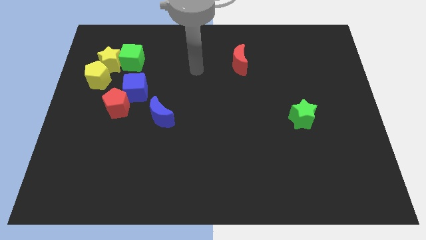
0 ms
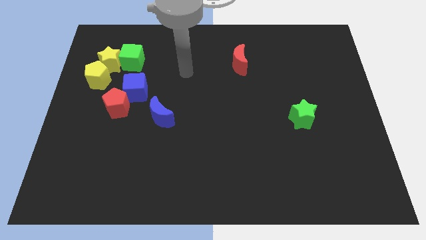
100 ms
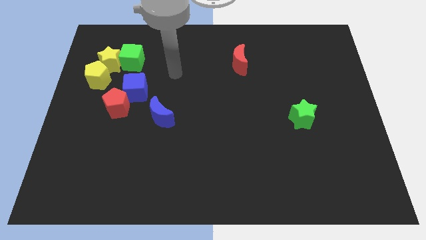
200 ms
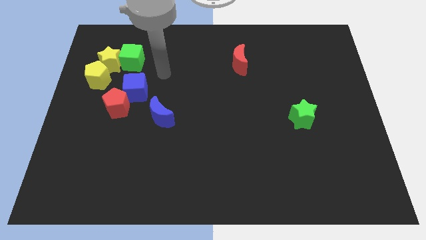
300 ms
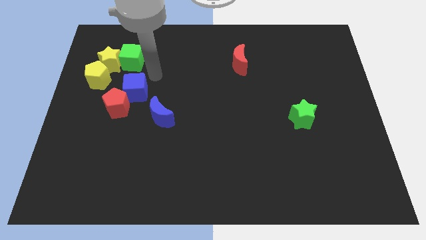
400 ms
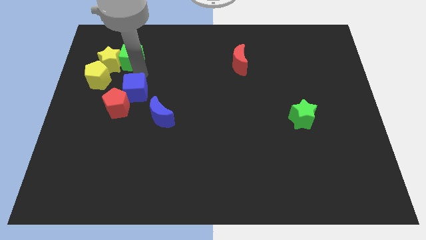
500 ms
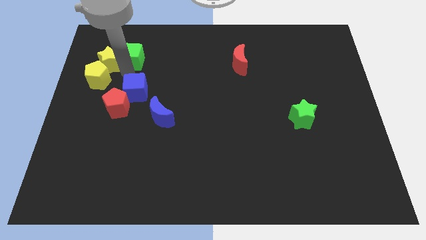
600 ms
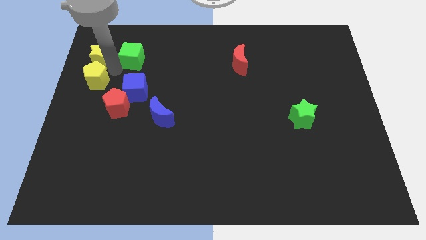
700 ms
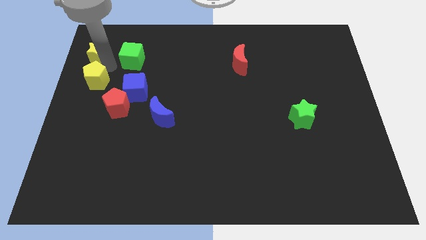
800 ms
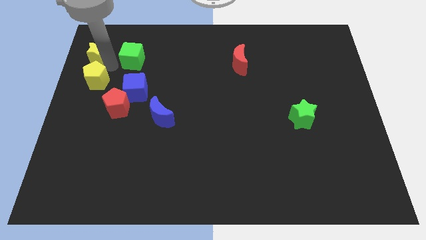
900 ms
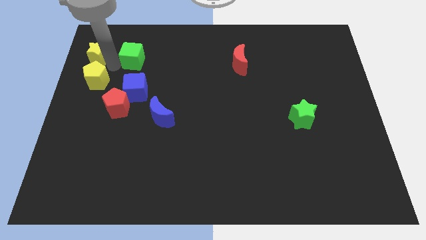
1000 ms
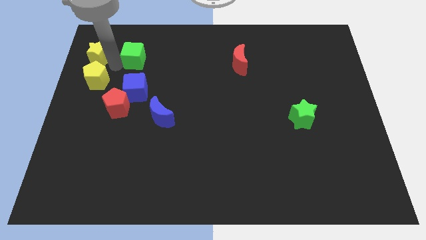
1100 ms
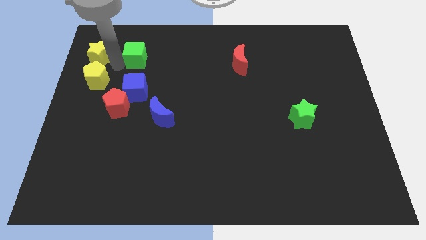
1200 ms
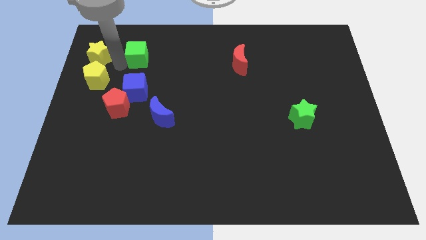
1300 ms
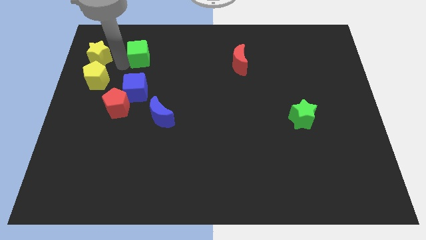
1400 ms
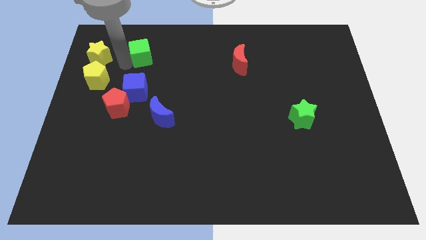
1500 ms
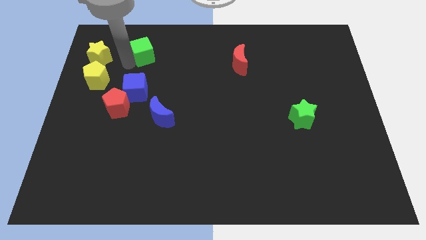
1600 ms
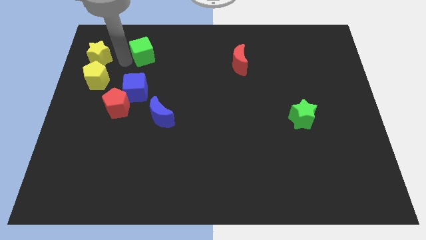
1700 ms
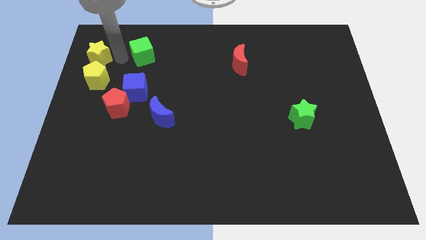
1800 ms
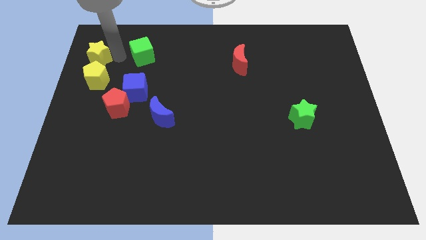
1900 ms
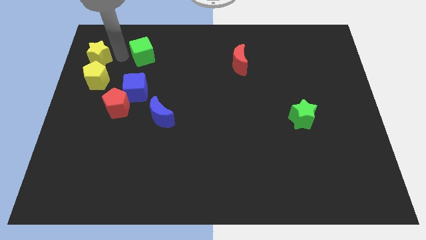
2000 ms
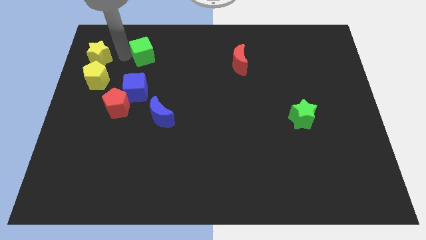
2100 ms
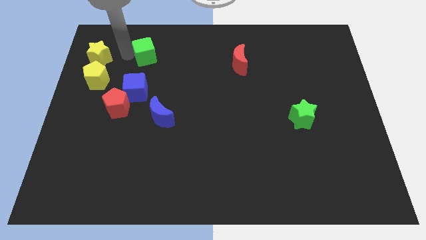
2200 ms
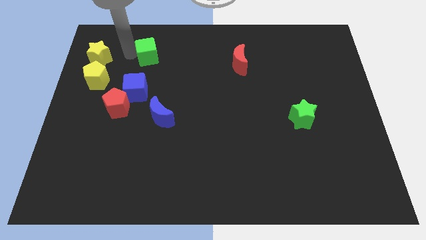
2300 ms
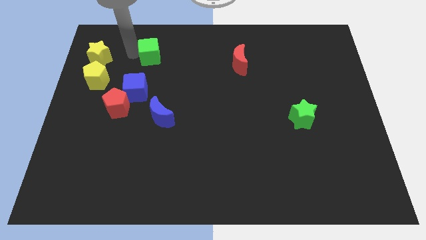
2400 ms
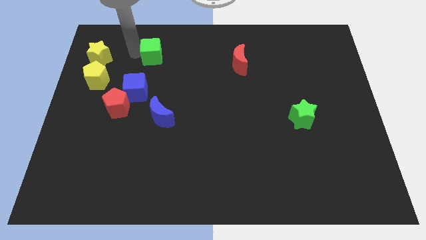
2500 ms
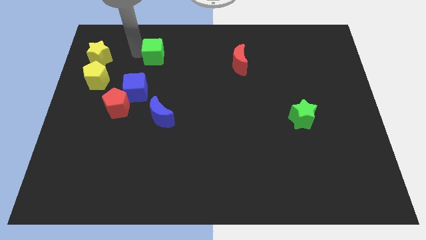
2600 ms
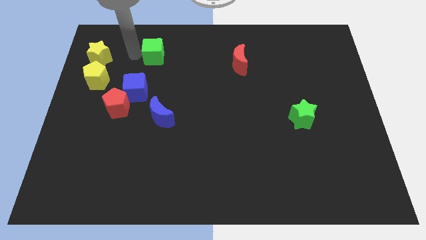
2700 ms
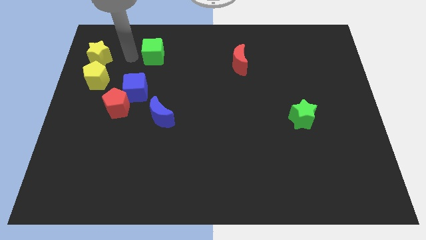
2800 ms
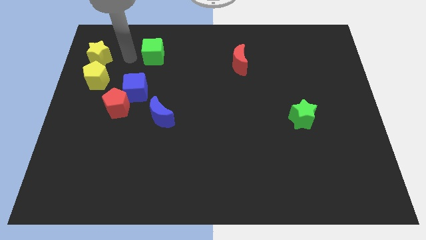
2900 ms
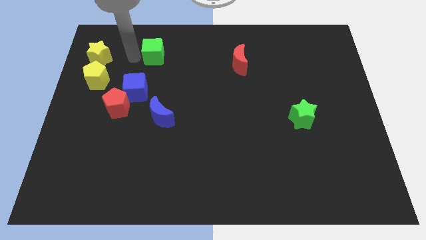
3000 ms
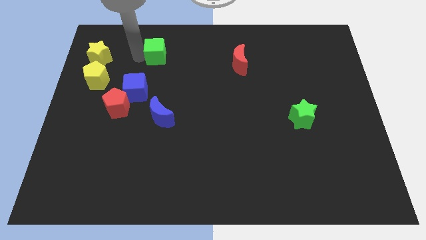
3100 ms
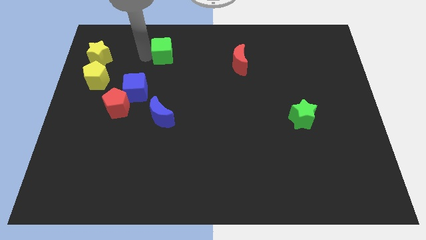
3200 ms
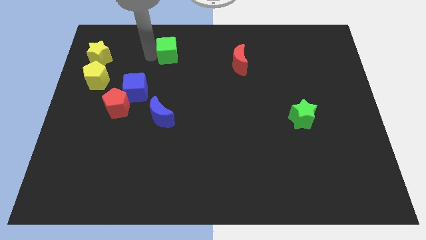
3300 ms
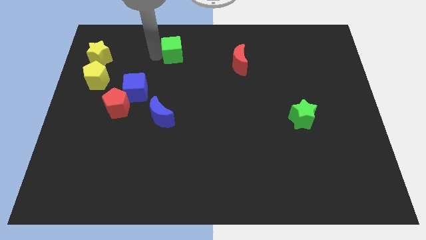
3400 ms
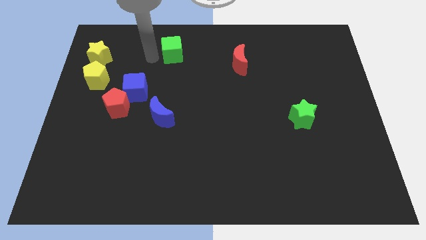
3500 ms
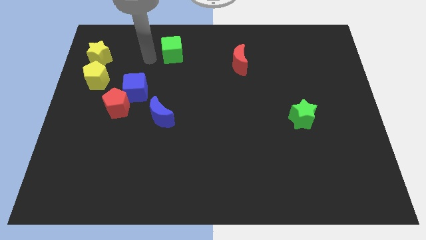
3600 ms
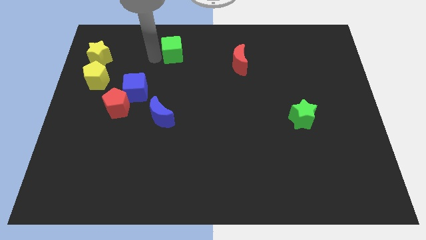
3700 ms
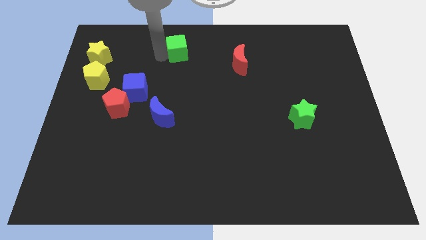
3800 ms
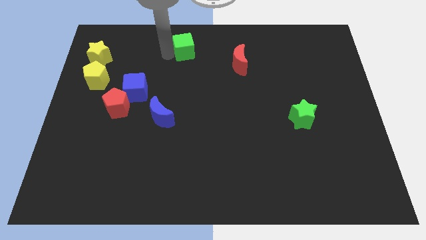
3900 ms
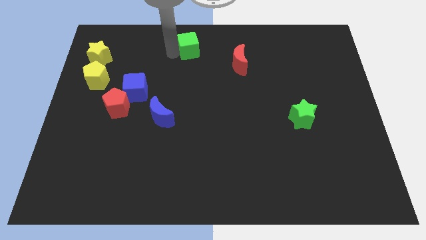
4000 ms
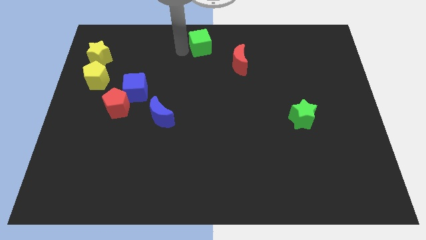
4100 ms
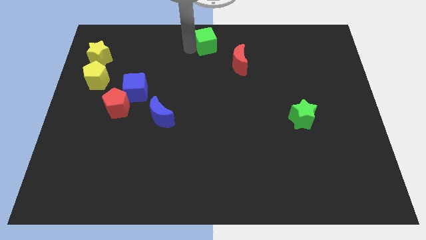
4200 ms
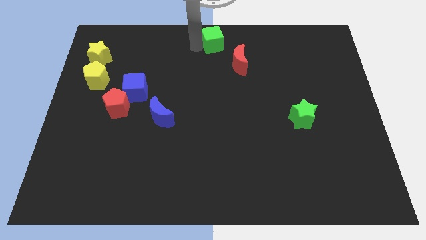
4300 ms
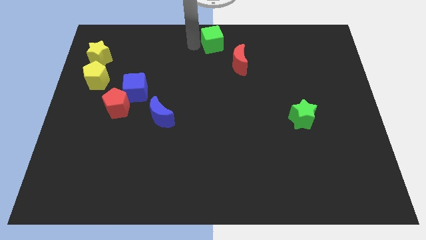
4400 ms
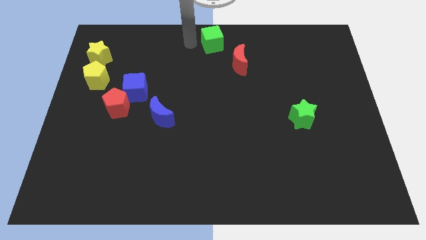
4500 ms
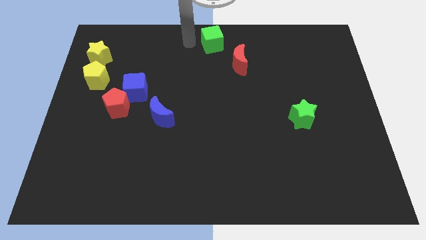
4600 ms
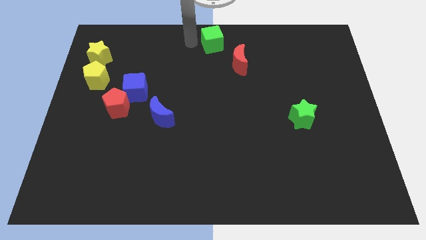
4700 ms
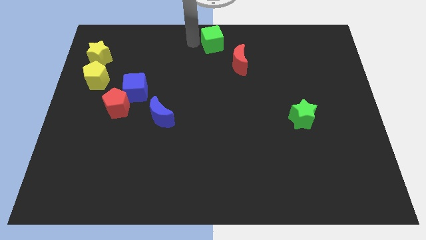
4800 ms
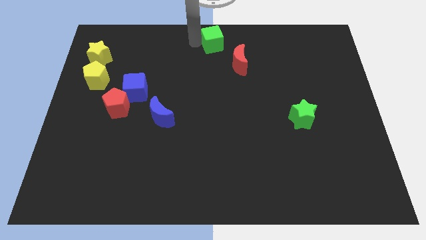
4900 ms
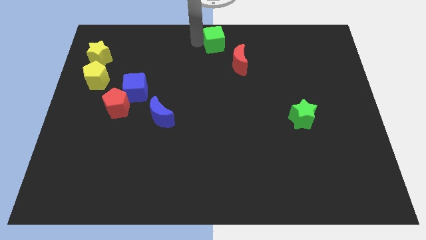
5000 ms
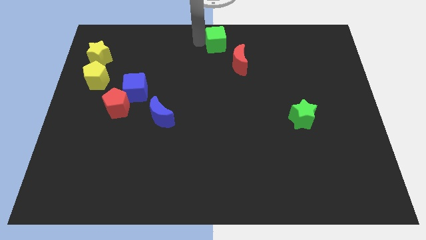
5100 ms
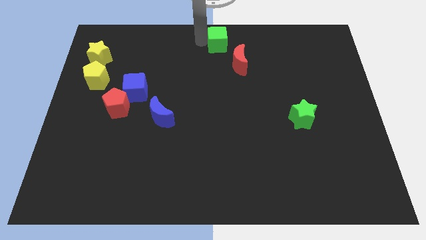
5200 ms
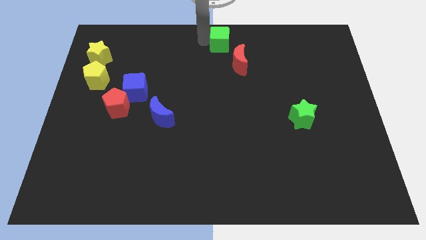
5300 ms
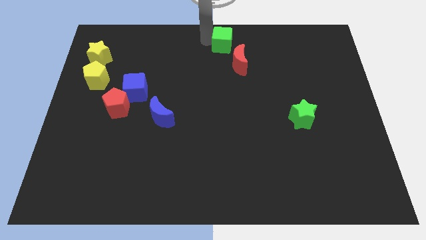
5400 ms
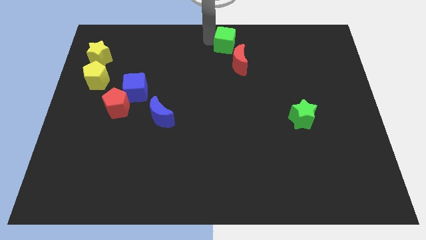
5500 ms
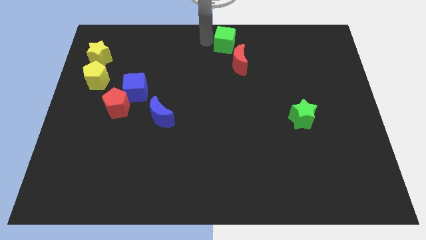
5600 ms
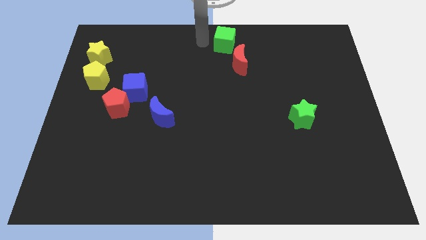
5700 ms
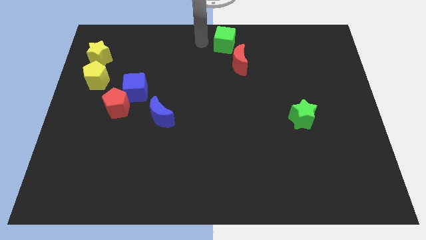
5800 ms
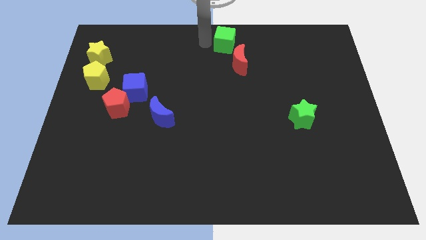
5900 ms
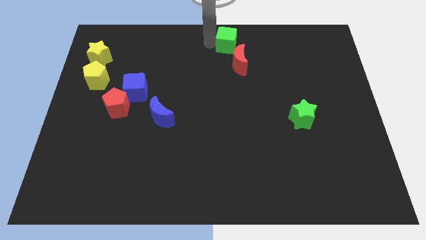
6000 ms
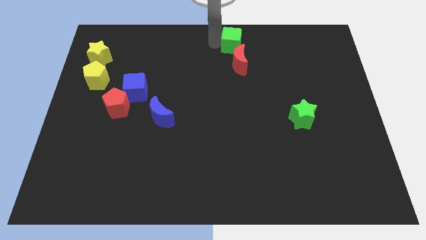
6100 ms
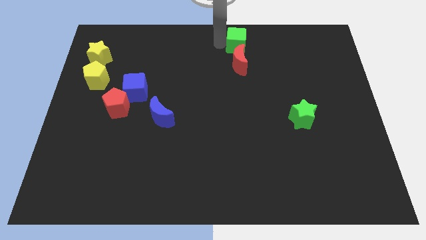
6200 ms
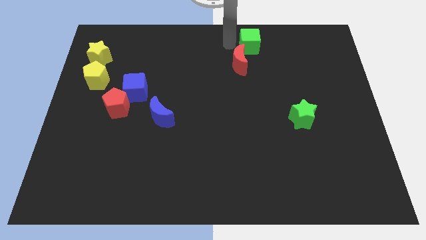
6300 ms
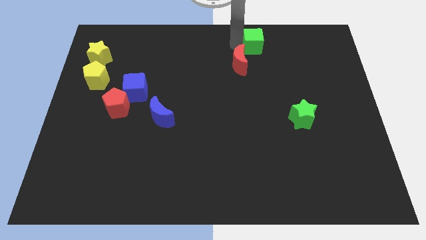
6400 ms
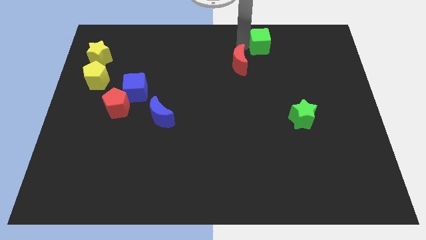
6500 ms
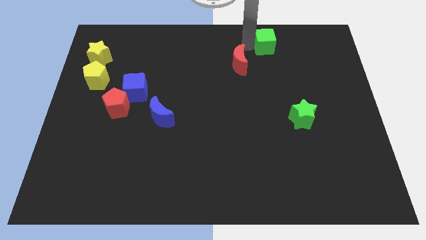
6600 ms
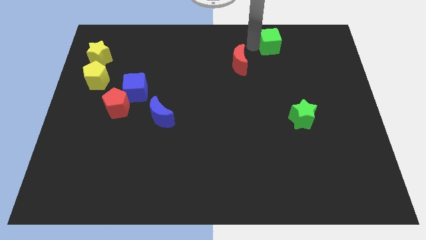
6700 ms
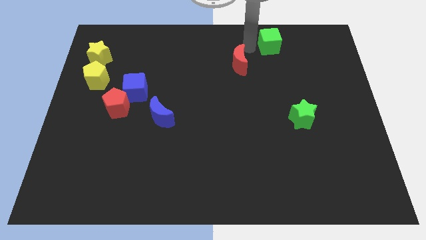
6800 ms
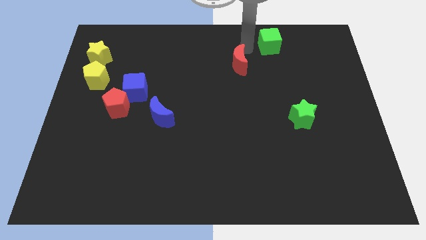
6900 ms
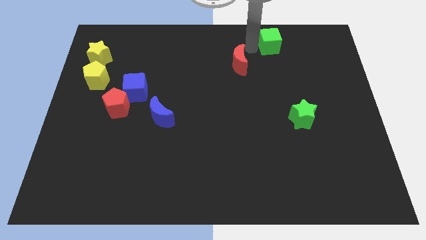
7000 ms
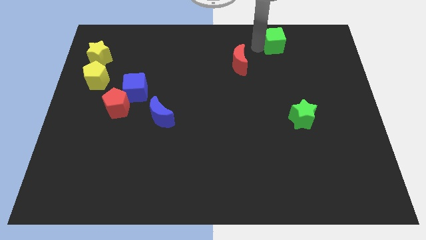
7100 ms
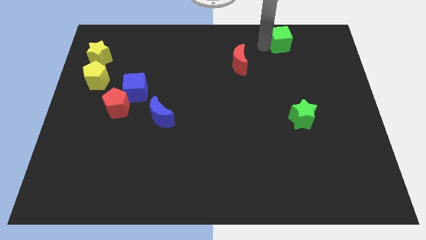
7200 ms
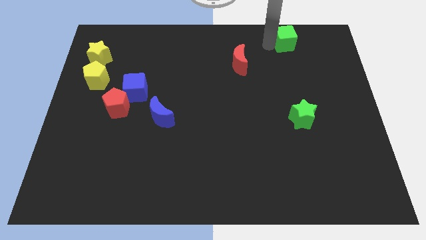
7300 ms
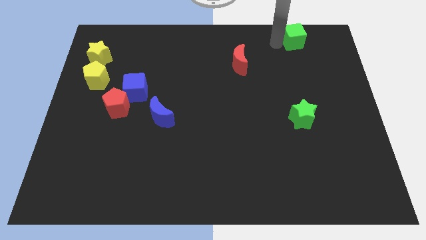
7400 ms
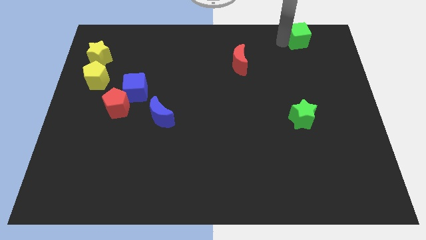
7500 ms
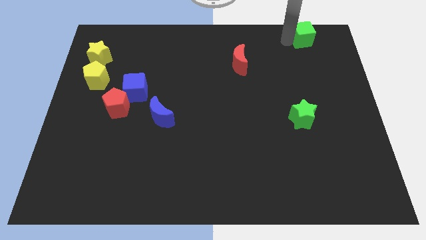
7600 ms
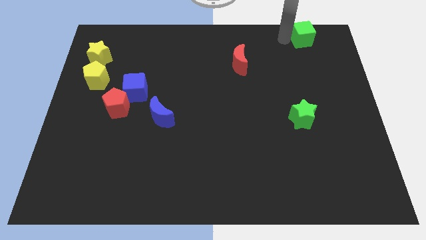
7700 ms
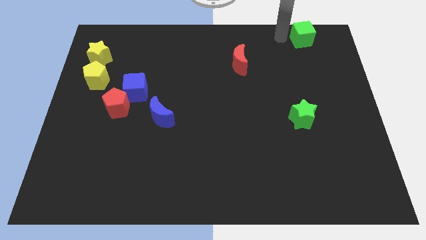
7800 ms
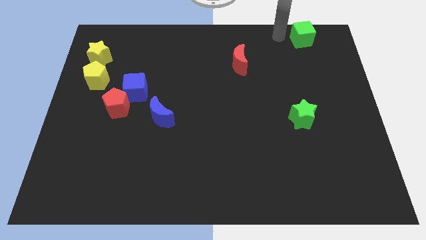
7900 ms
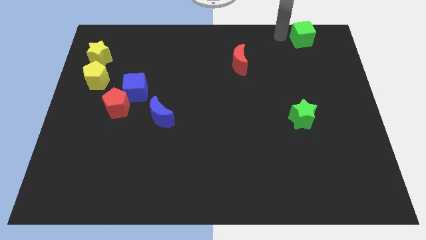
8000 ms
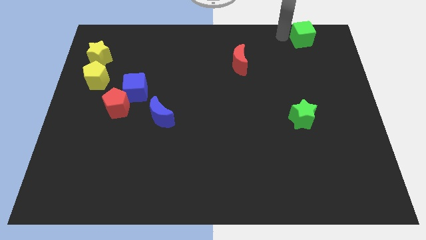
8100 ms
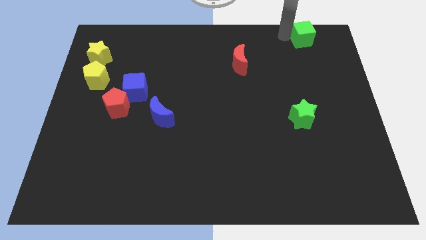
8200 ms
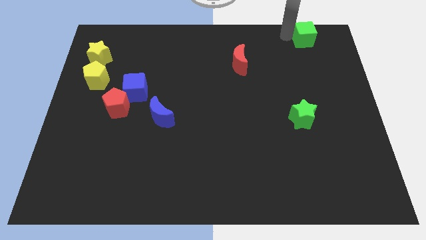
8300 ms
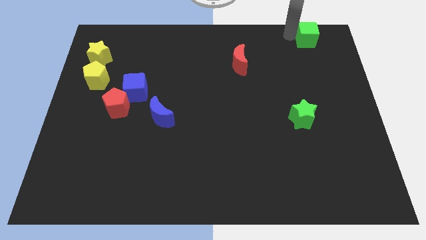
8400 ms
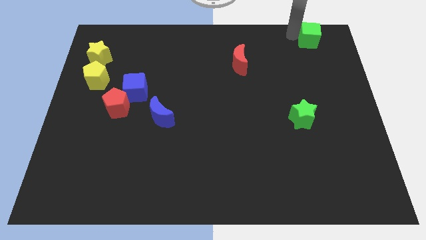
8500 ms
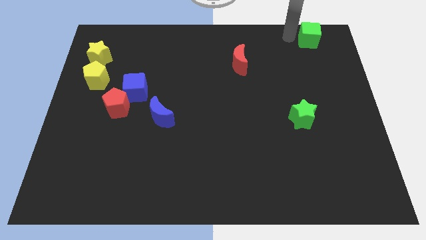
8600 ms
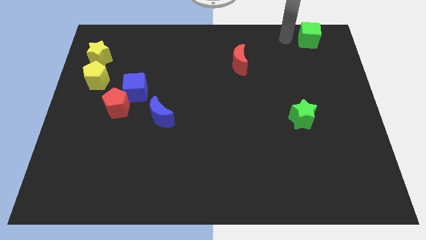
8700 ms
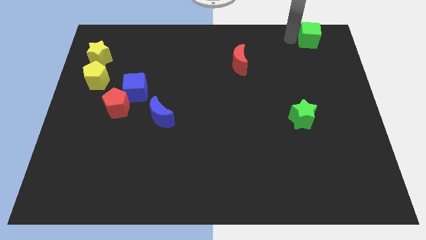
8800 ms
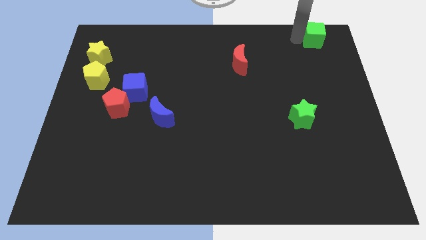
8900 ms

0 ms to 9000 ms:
push the green cube to the top right of the board
